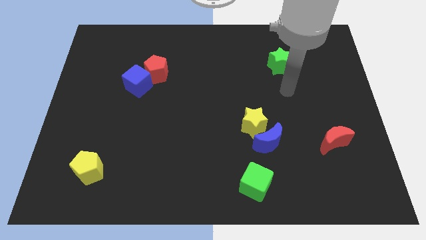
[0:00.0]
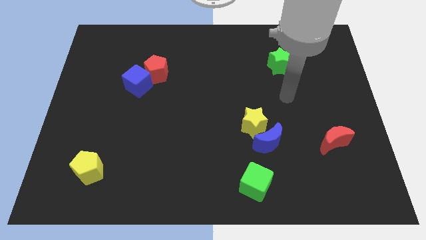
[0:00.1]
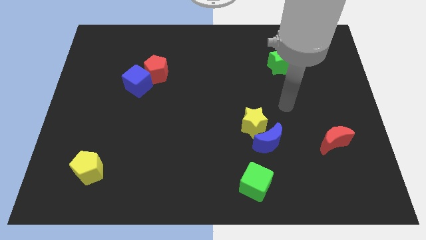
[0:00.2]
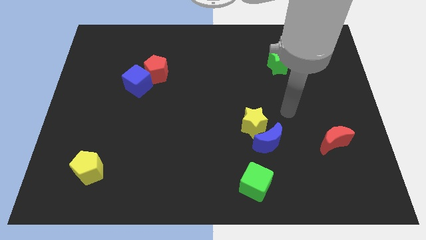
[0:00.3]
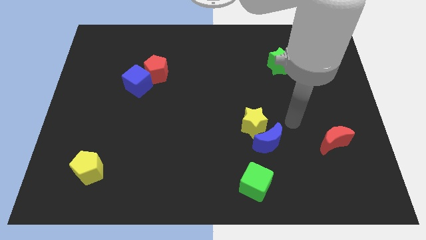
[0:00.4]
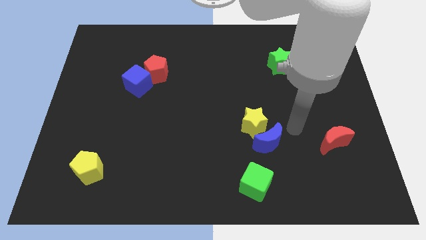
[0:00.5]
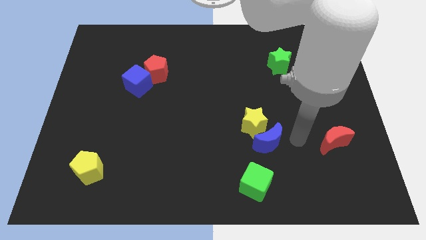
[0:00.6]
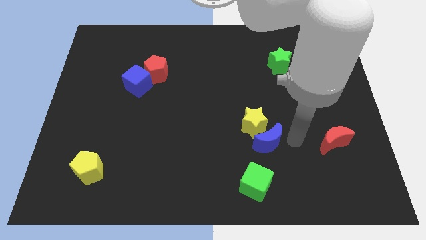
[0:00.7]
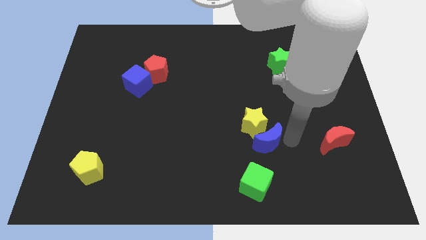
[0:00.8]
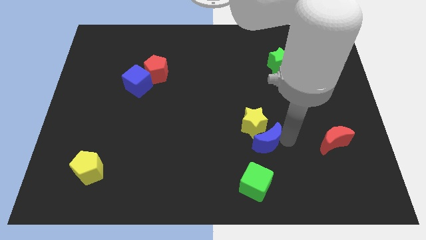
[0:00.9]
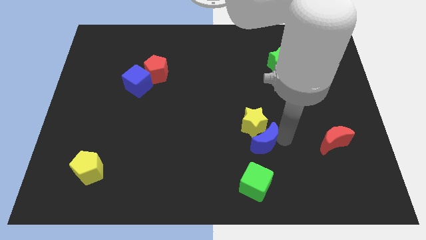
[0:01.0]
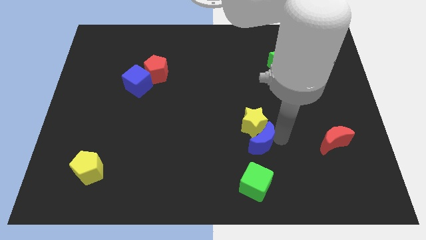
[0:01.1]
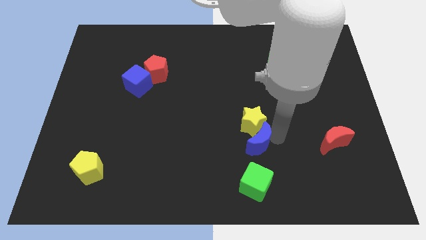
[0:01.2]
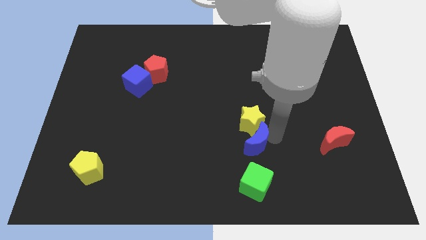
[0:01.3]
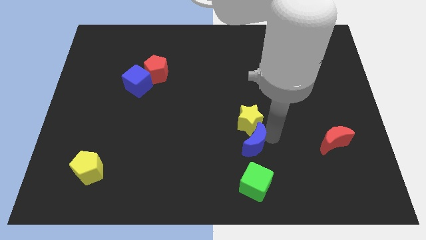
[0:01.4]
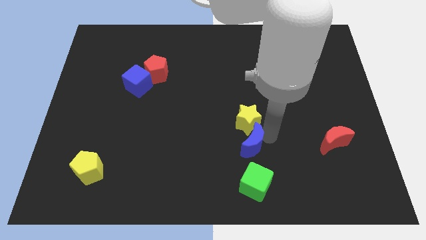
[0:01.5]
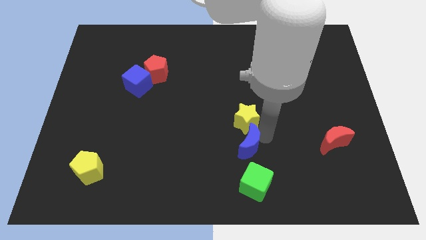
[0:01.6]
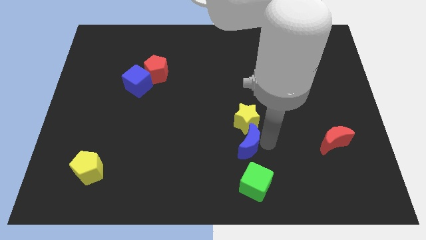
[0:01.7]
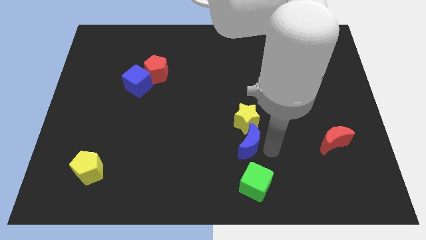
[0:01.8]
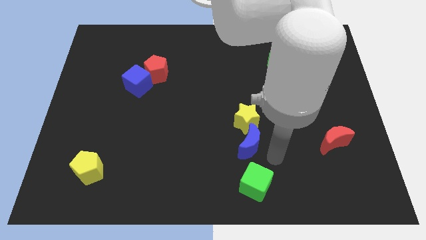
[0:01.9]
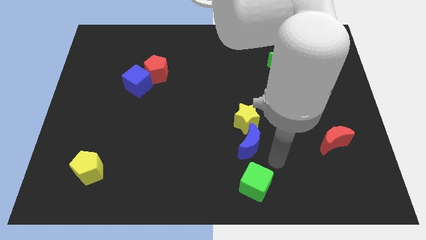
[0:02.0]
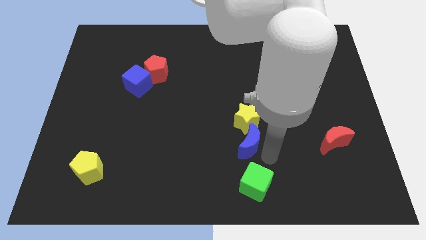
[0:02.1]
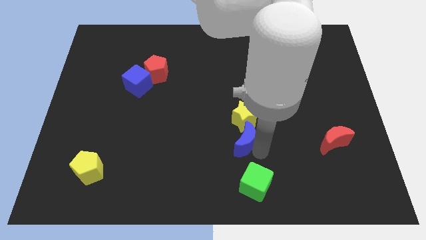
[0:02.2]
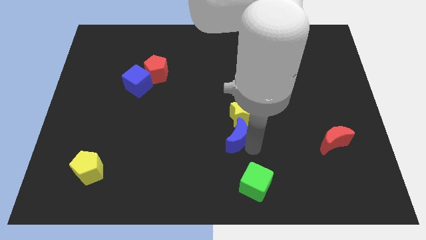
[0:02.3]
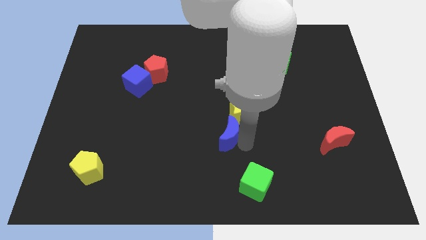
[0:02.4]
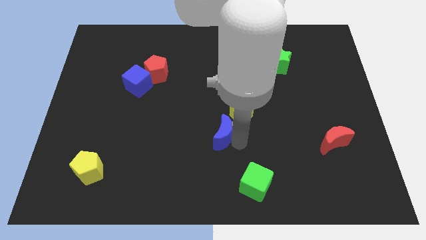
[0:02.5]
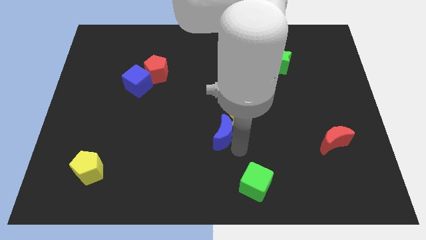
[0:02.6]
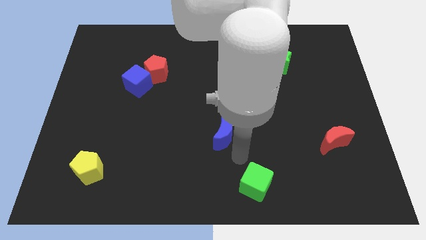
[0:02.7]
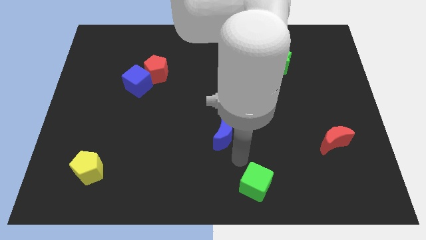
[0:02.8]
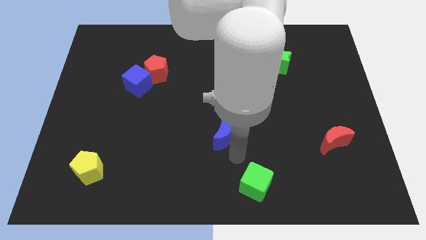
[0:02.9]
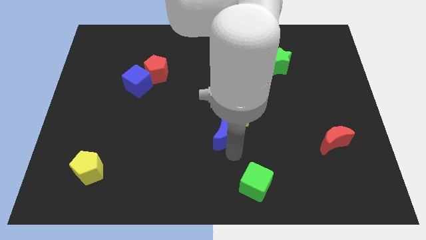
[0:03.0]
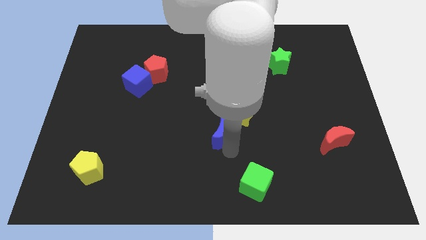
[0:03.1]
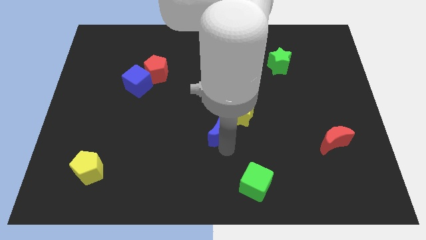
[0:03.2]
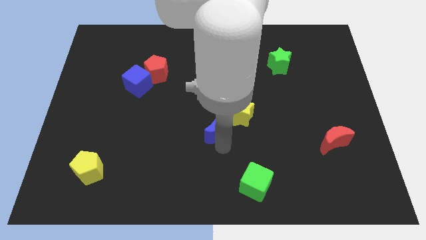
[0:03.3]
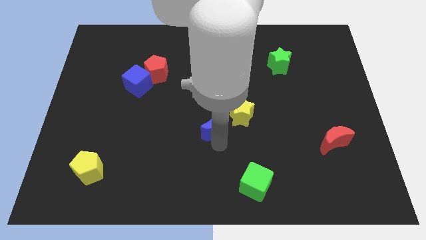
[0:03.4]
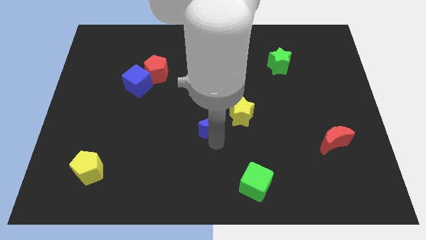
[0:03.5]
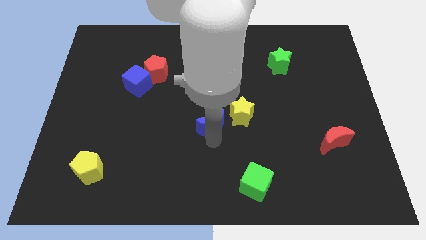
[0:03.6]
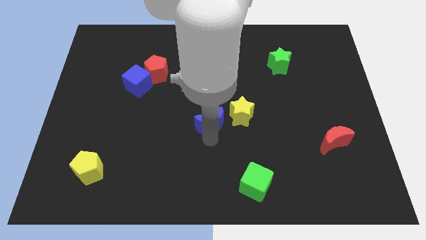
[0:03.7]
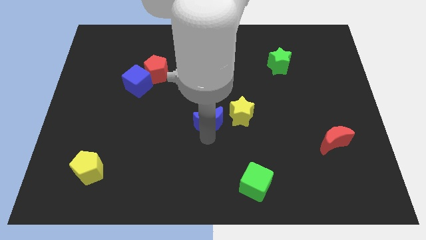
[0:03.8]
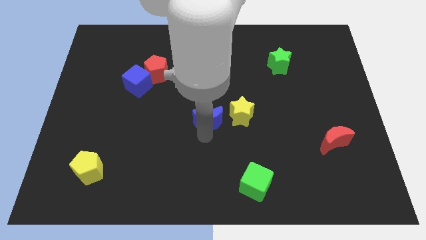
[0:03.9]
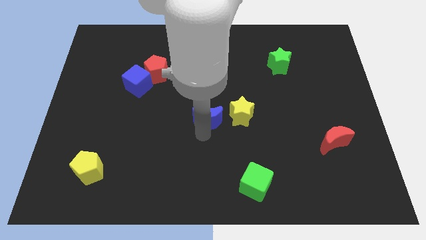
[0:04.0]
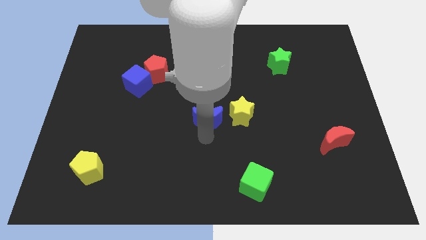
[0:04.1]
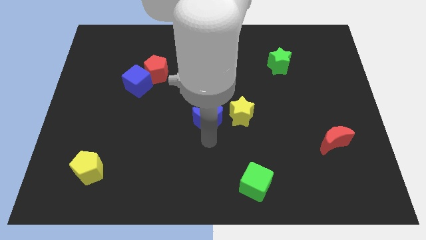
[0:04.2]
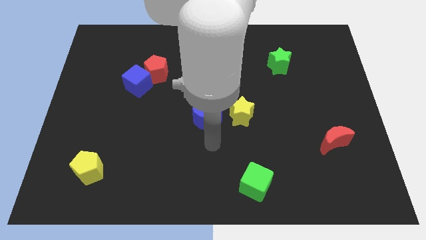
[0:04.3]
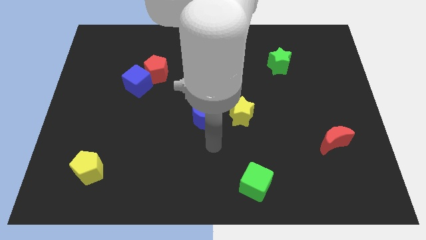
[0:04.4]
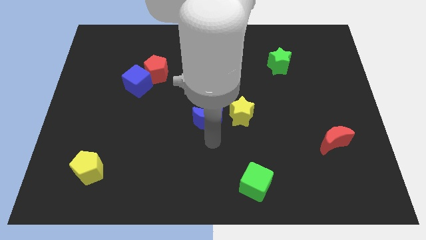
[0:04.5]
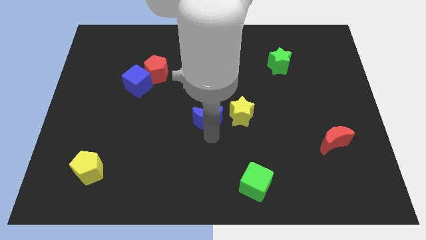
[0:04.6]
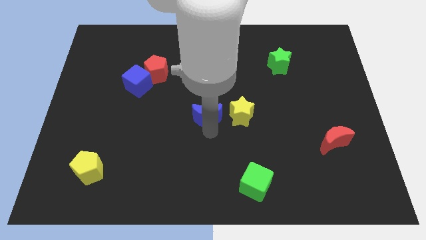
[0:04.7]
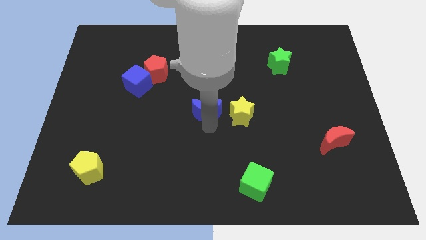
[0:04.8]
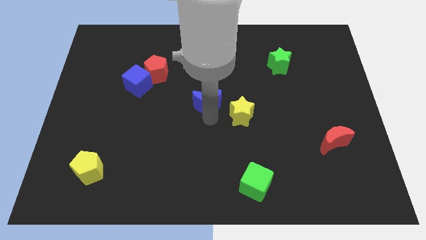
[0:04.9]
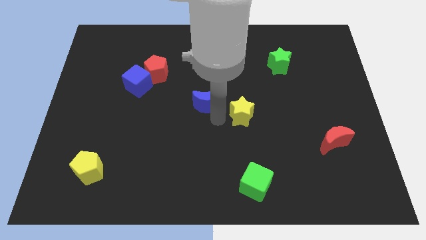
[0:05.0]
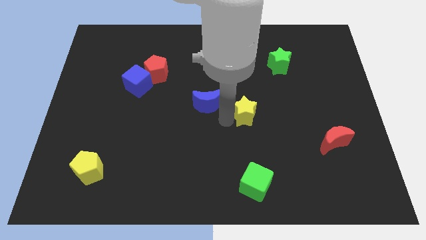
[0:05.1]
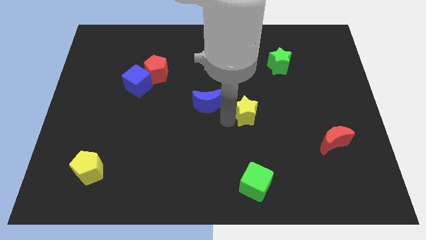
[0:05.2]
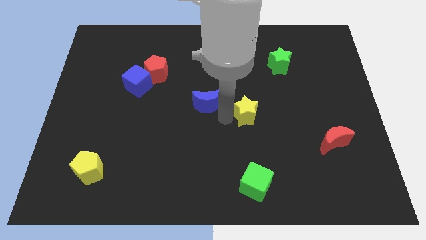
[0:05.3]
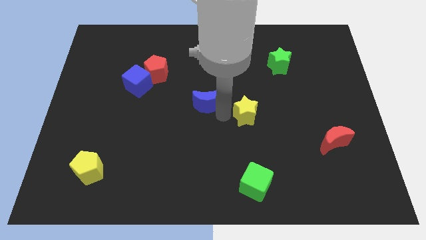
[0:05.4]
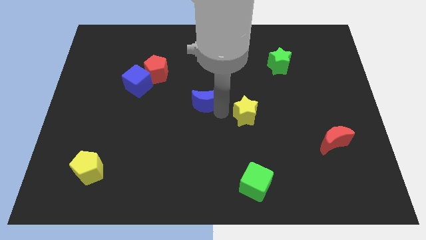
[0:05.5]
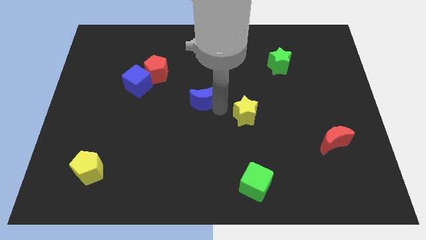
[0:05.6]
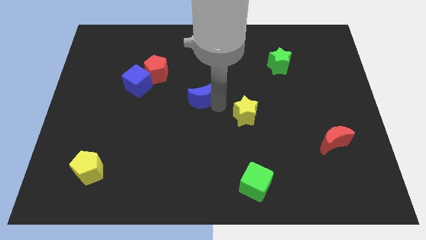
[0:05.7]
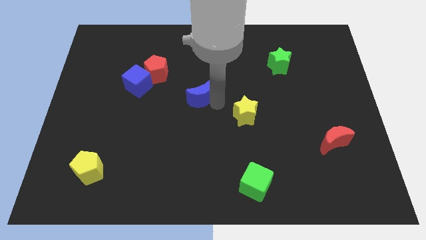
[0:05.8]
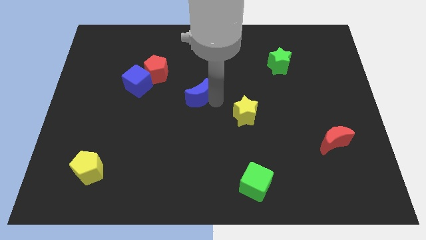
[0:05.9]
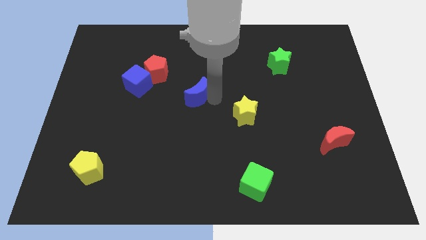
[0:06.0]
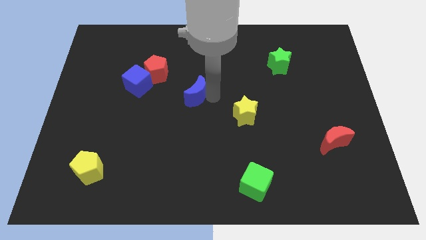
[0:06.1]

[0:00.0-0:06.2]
push the blue moon right of the blue cube
